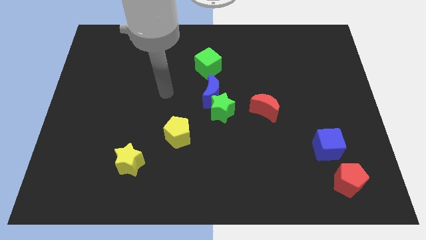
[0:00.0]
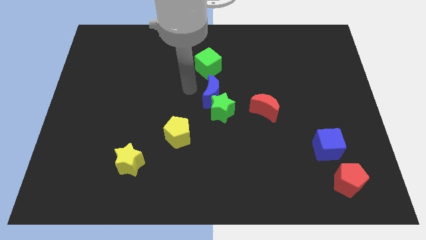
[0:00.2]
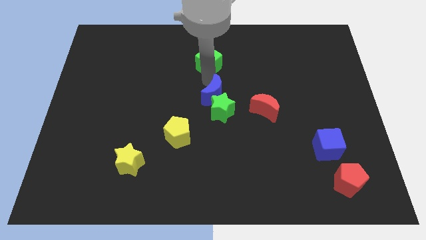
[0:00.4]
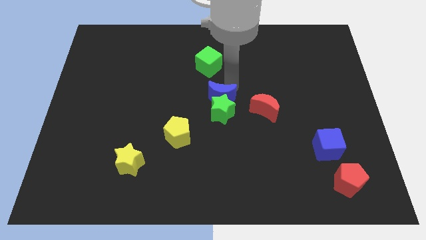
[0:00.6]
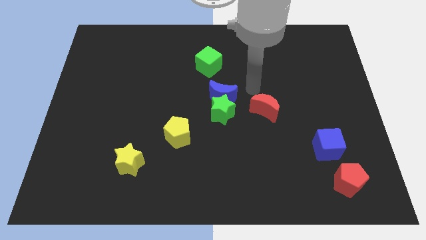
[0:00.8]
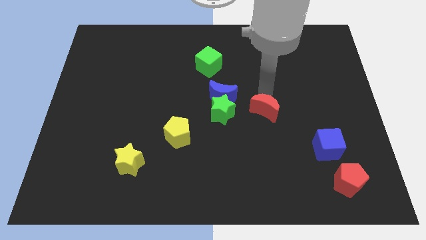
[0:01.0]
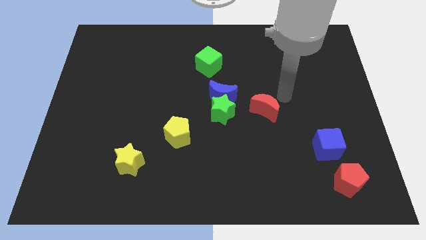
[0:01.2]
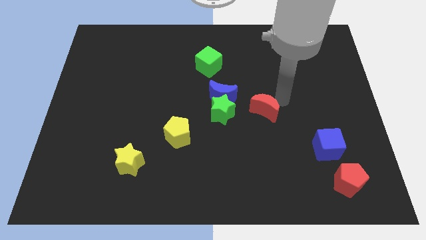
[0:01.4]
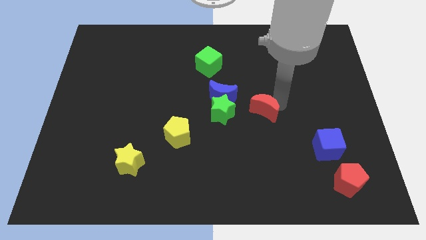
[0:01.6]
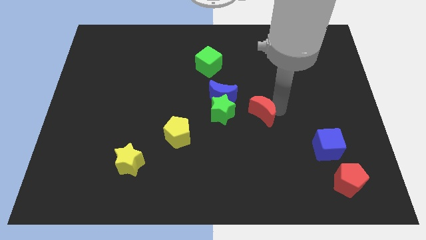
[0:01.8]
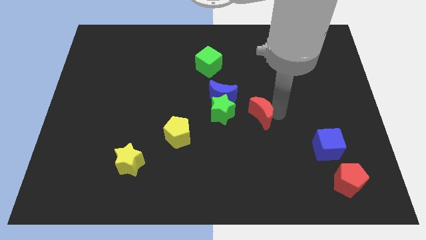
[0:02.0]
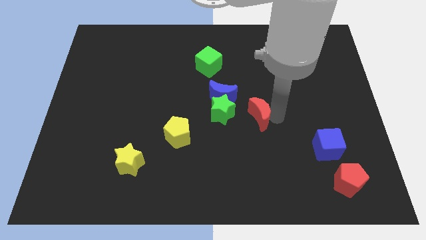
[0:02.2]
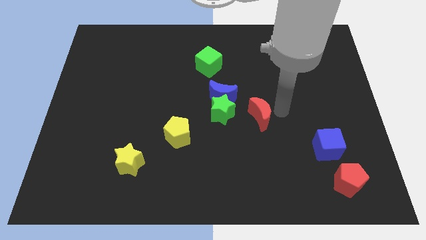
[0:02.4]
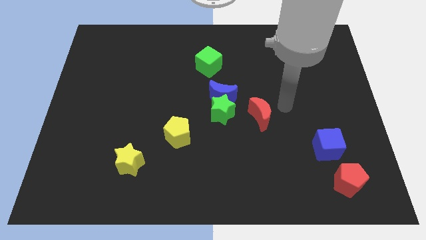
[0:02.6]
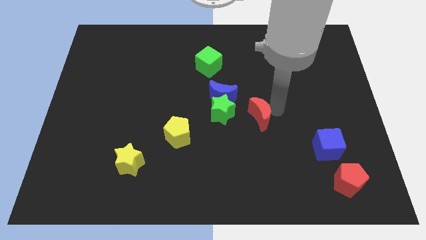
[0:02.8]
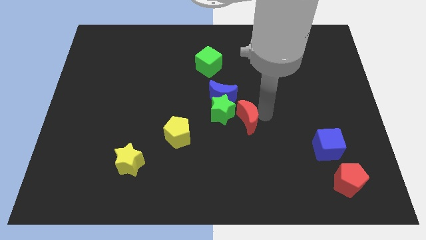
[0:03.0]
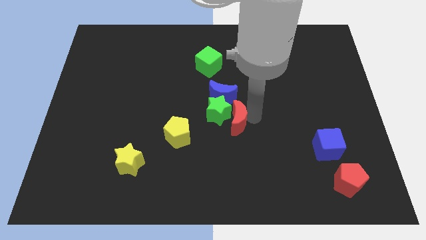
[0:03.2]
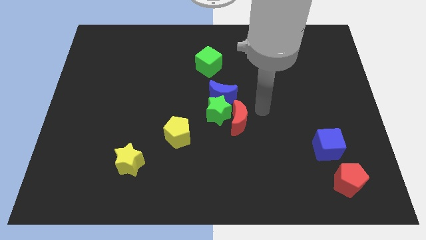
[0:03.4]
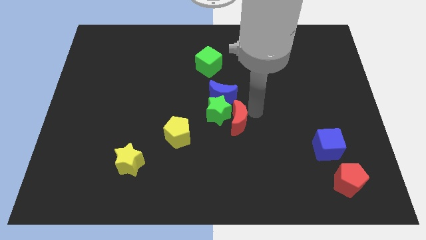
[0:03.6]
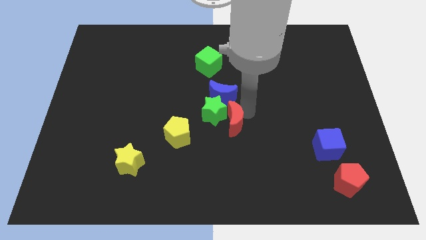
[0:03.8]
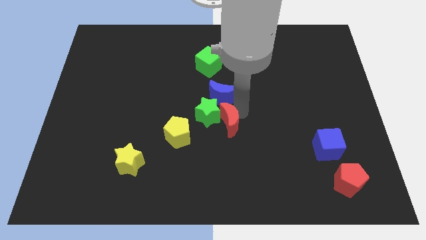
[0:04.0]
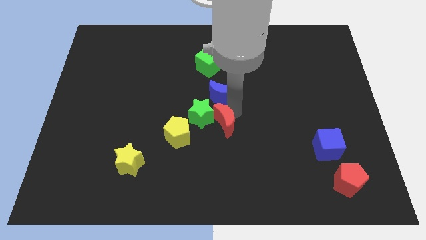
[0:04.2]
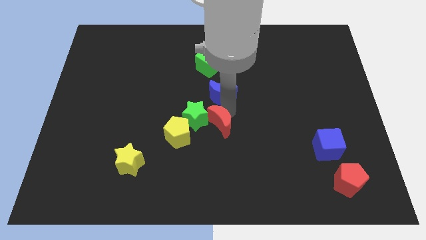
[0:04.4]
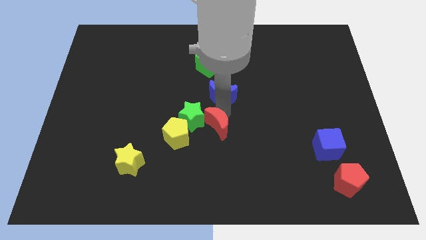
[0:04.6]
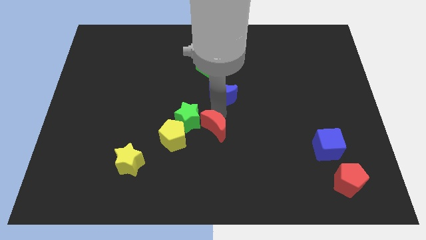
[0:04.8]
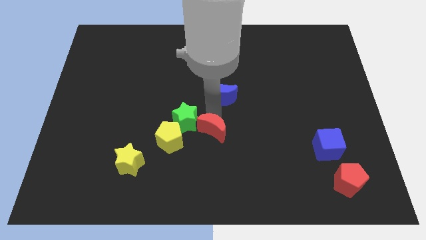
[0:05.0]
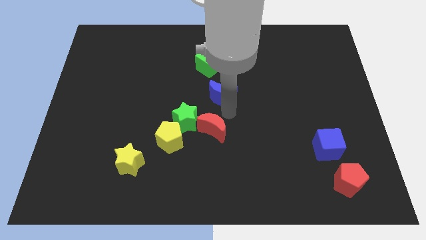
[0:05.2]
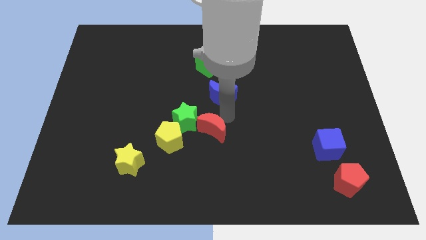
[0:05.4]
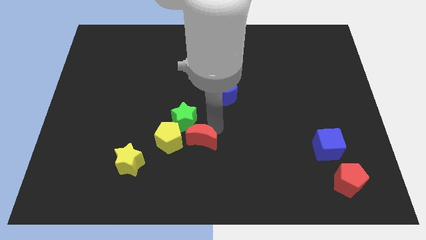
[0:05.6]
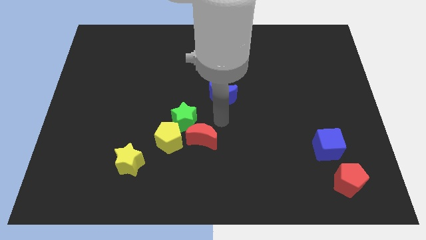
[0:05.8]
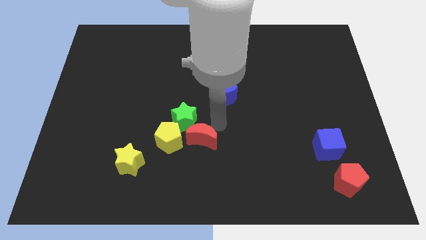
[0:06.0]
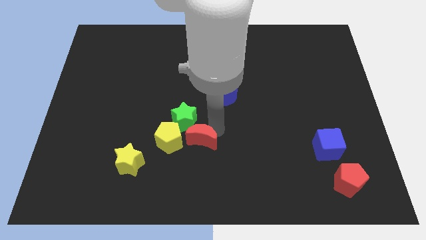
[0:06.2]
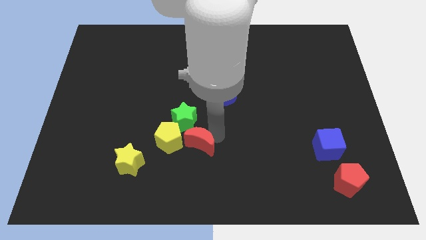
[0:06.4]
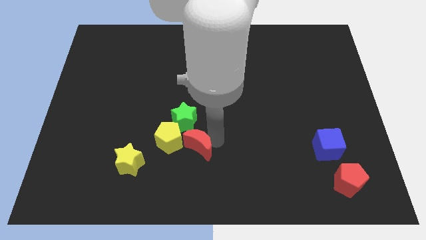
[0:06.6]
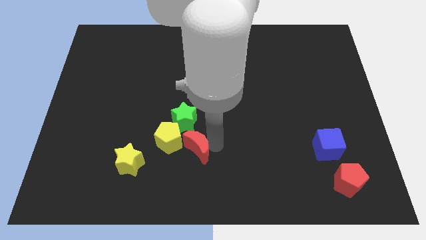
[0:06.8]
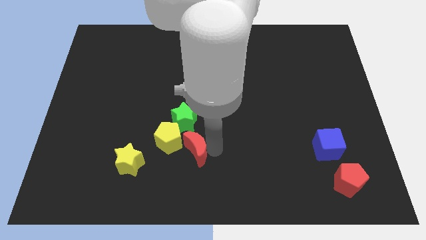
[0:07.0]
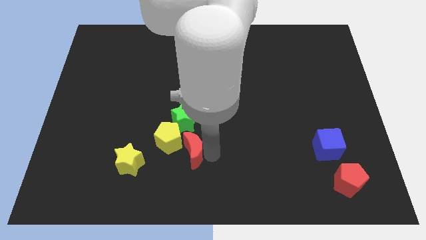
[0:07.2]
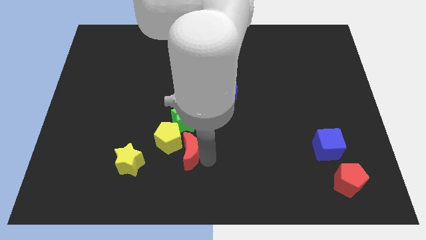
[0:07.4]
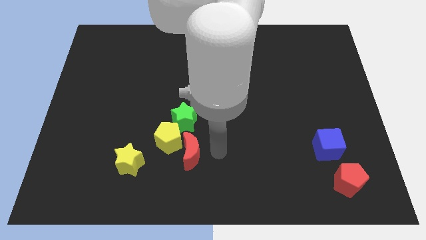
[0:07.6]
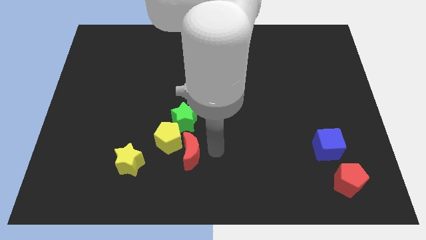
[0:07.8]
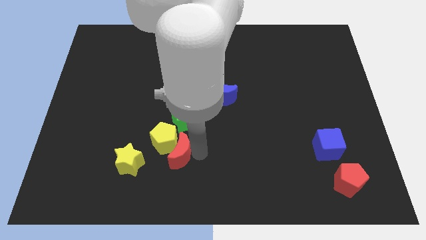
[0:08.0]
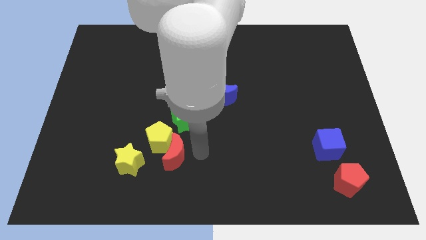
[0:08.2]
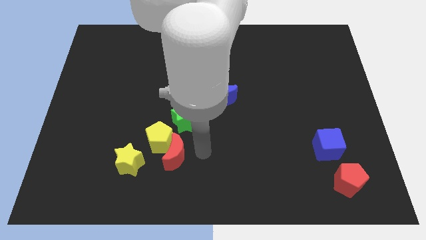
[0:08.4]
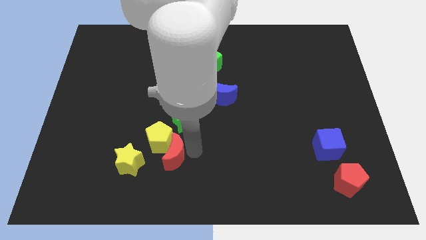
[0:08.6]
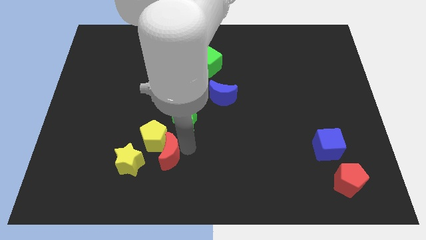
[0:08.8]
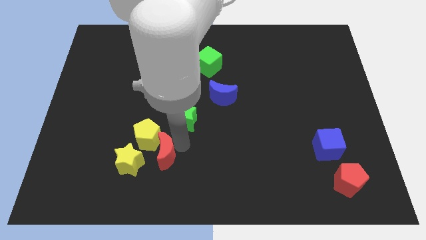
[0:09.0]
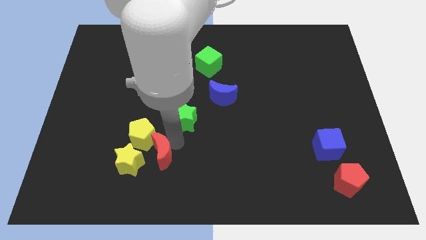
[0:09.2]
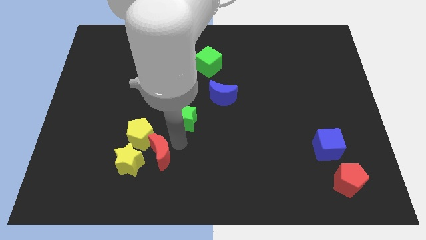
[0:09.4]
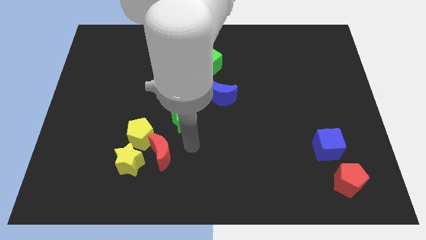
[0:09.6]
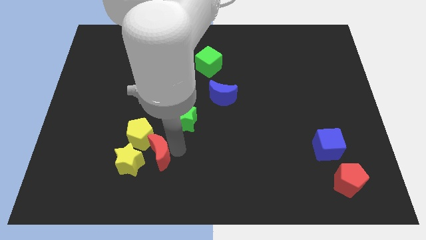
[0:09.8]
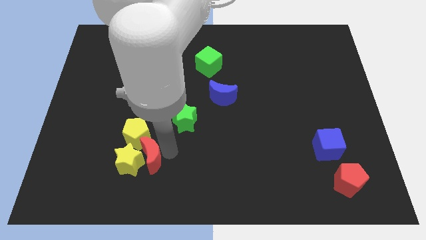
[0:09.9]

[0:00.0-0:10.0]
push the red moon to the yellow star

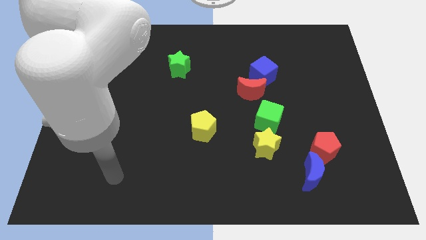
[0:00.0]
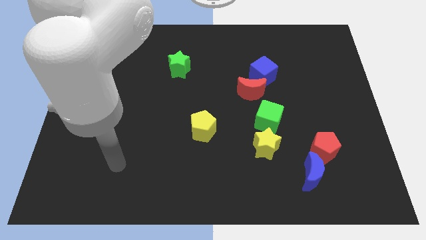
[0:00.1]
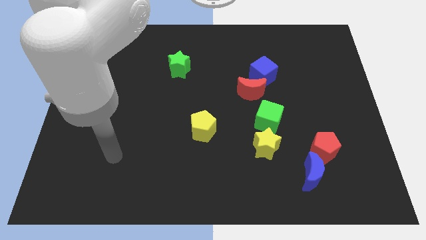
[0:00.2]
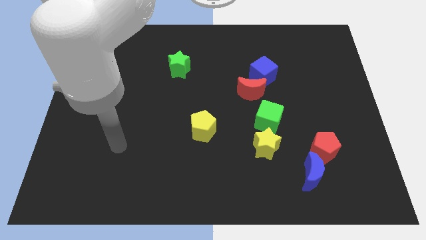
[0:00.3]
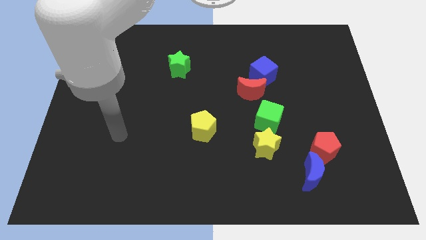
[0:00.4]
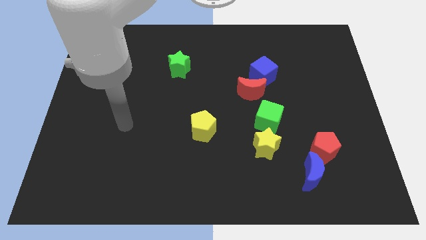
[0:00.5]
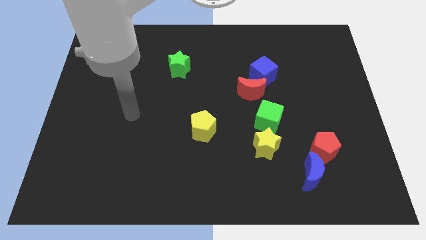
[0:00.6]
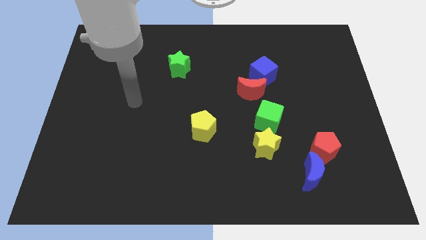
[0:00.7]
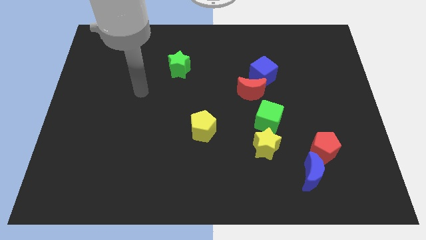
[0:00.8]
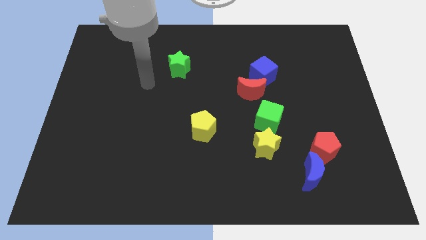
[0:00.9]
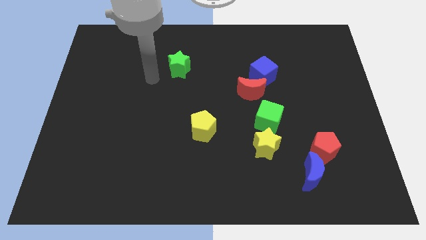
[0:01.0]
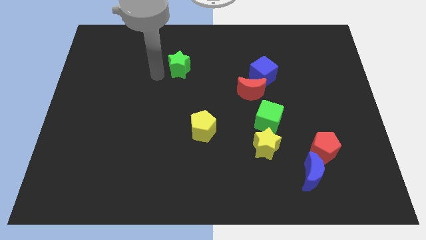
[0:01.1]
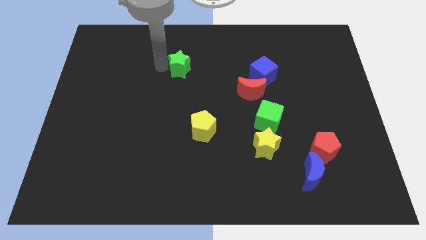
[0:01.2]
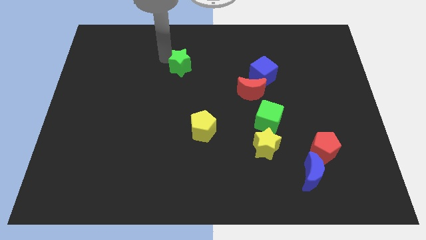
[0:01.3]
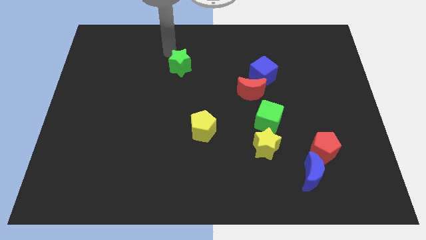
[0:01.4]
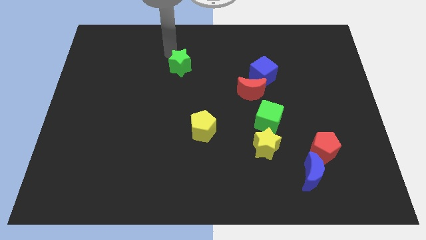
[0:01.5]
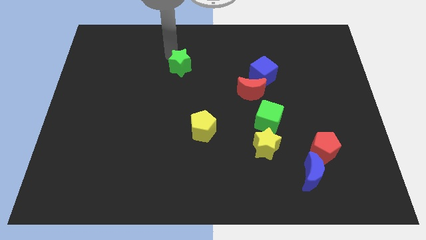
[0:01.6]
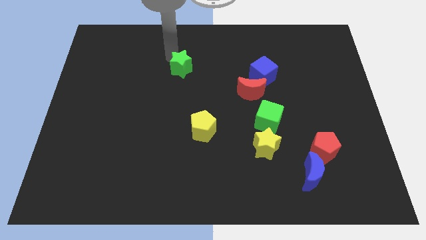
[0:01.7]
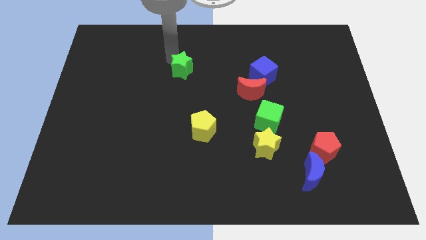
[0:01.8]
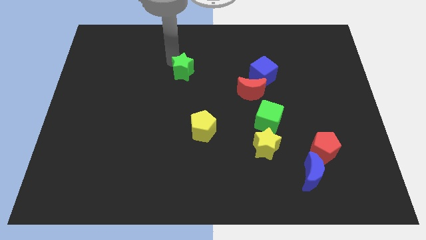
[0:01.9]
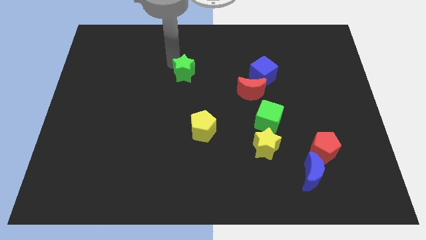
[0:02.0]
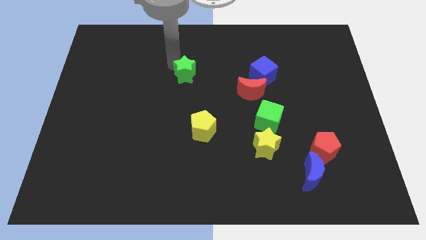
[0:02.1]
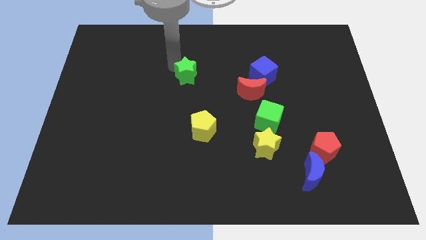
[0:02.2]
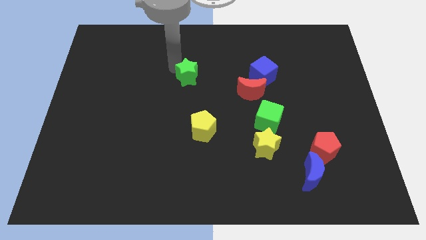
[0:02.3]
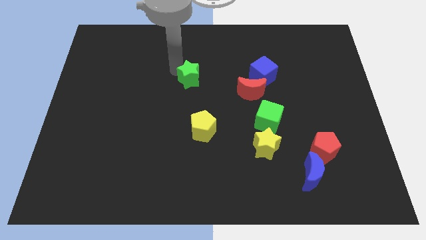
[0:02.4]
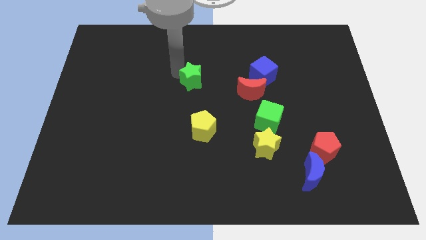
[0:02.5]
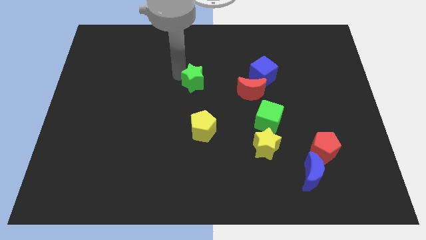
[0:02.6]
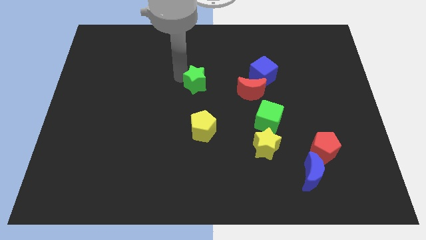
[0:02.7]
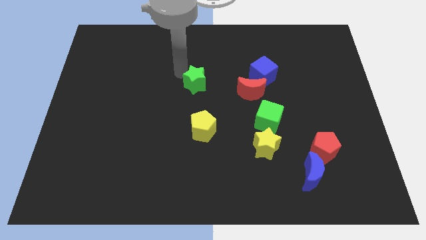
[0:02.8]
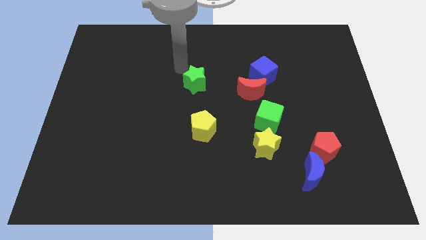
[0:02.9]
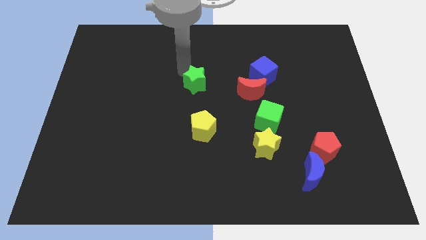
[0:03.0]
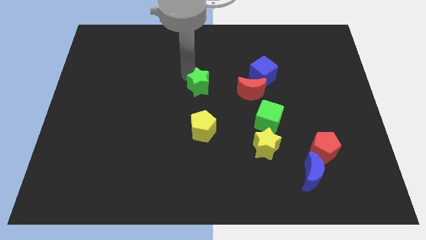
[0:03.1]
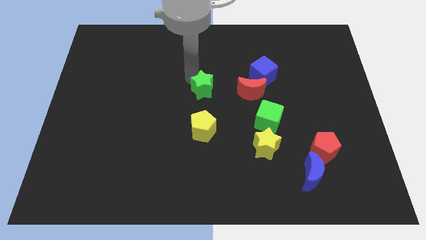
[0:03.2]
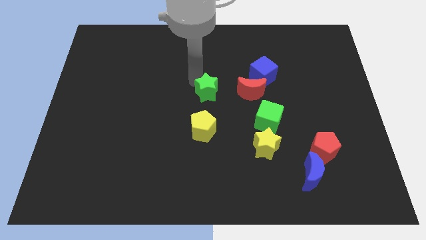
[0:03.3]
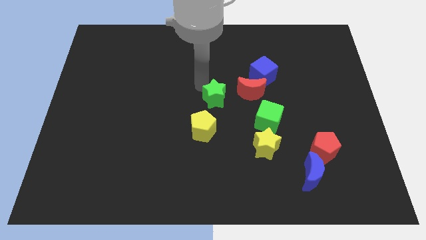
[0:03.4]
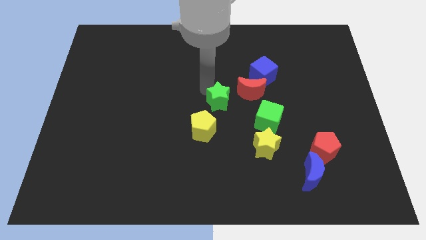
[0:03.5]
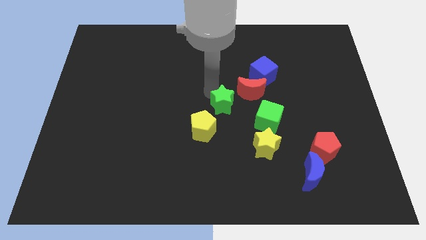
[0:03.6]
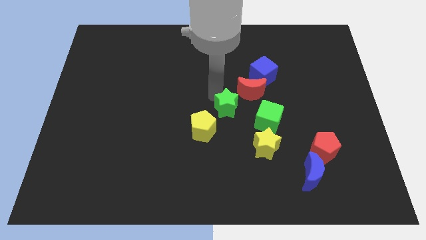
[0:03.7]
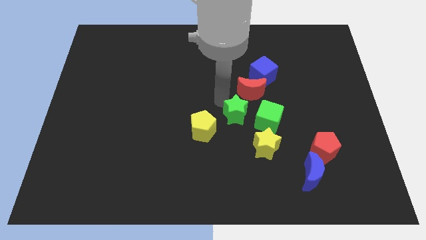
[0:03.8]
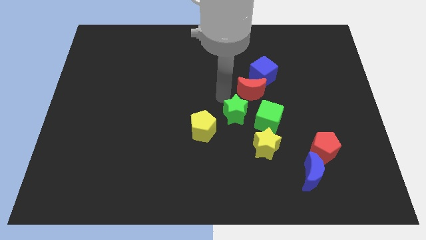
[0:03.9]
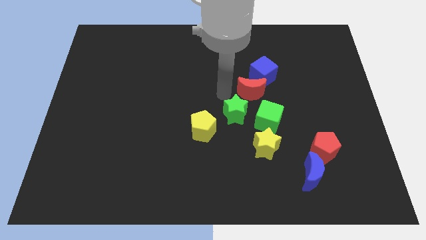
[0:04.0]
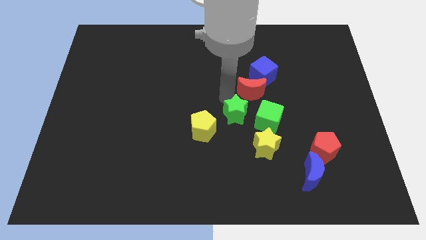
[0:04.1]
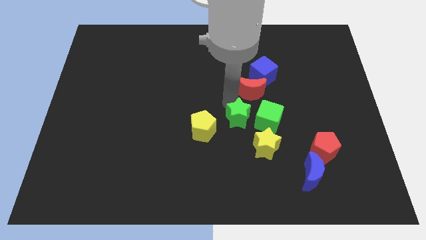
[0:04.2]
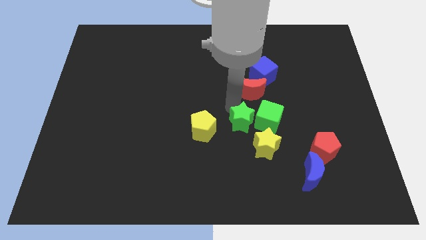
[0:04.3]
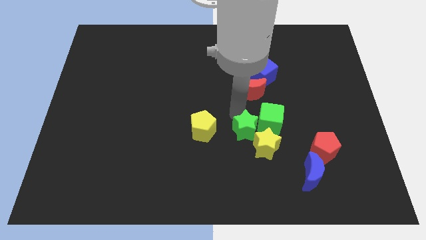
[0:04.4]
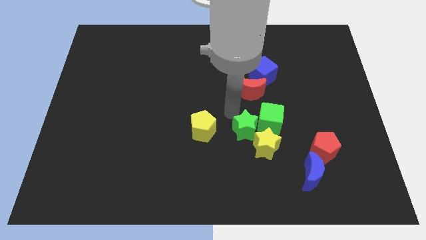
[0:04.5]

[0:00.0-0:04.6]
move the green star close to the yellow star
